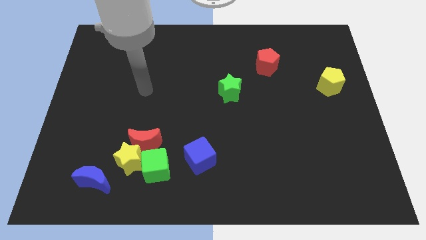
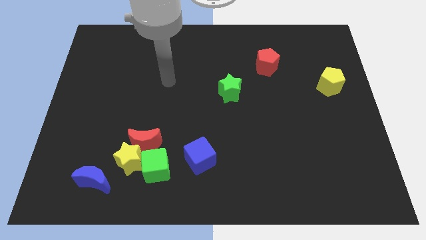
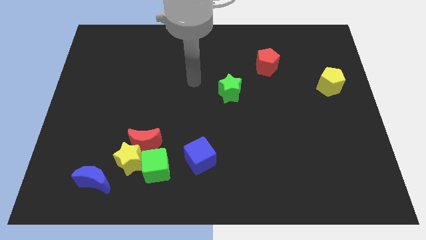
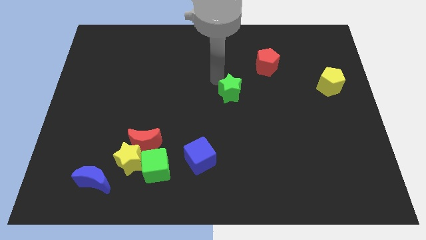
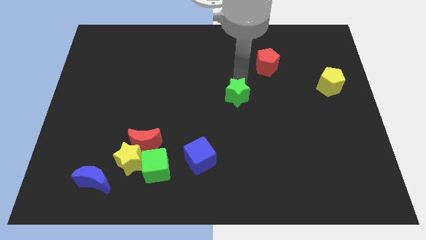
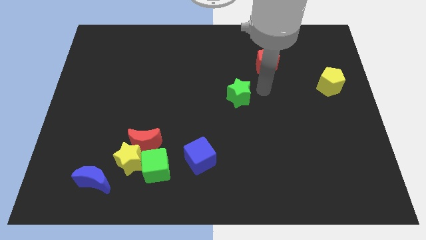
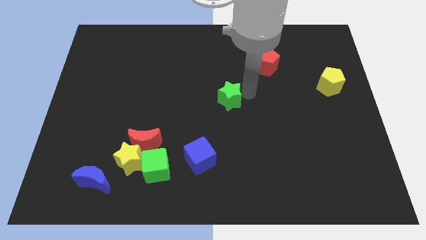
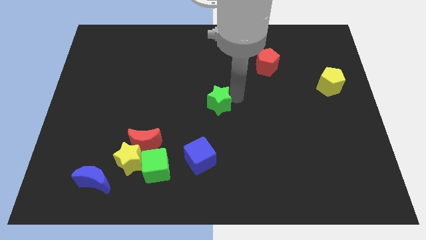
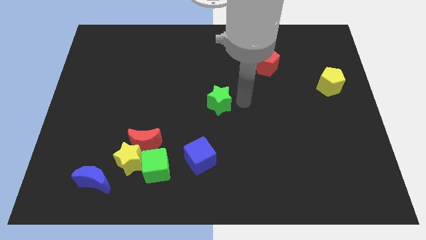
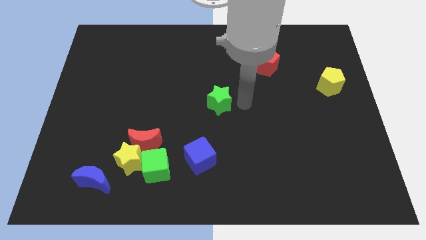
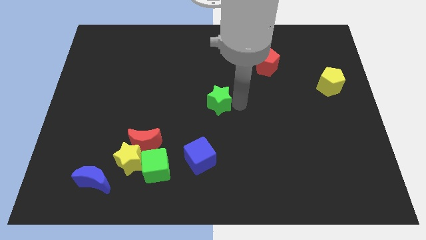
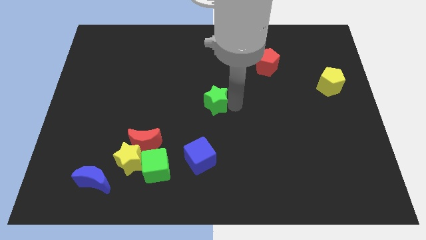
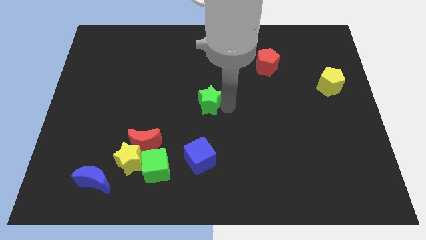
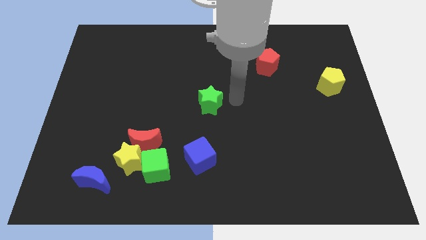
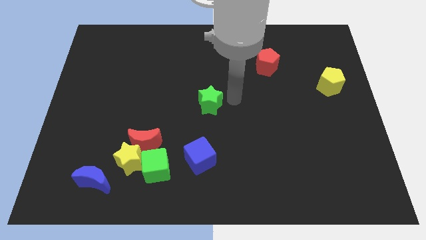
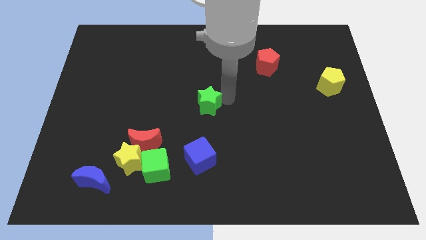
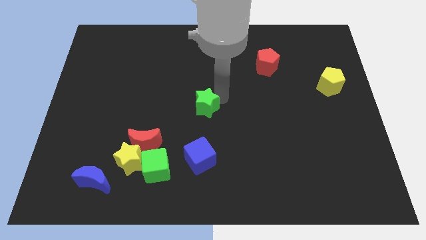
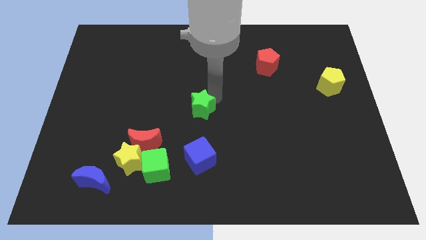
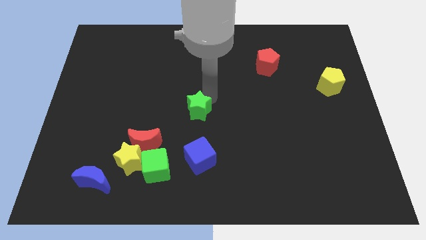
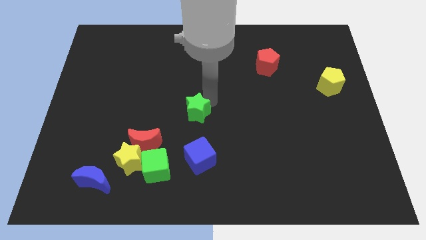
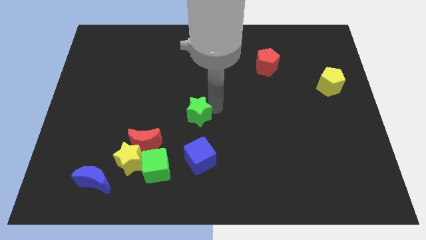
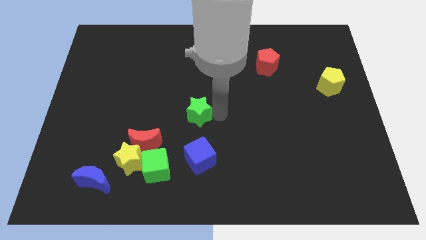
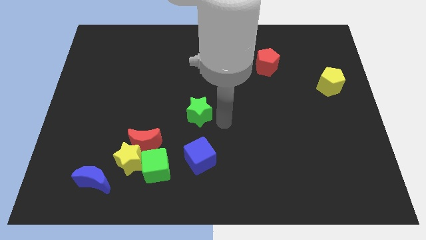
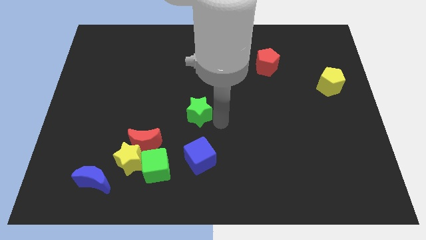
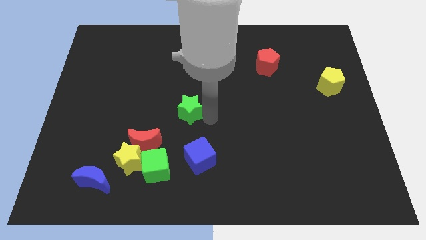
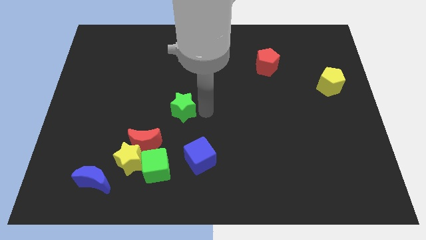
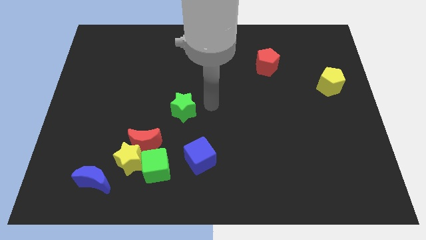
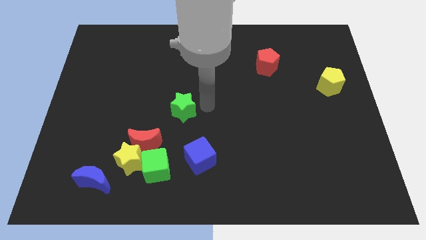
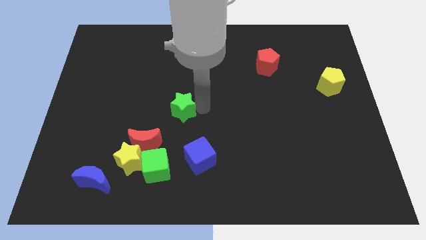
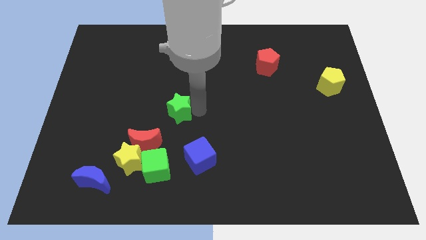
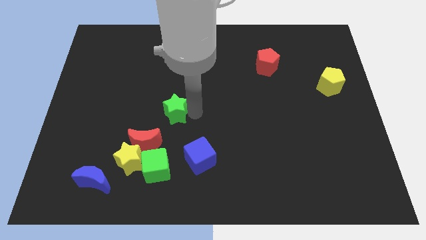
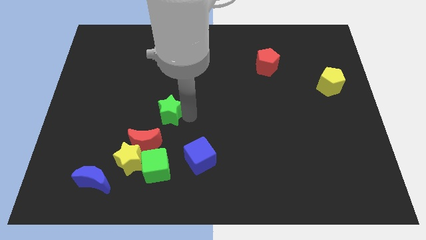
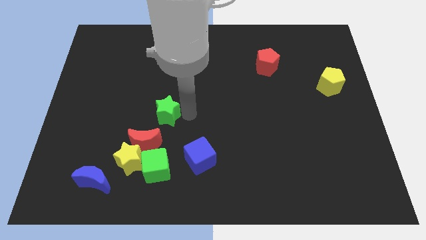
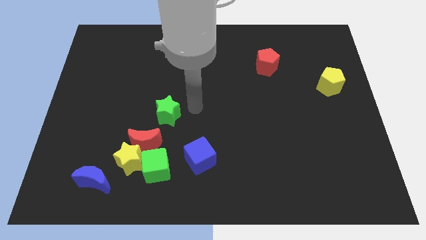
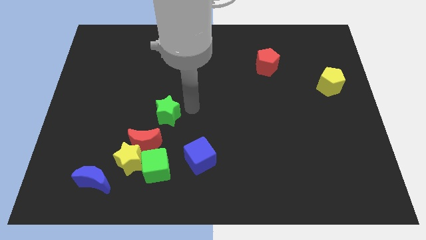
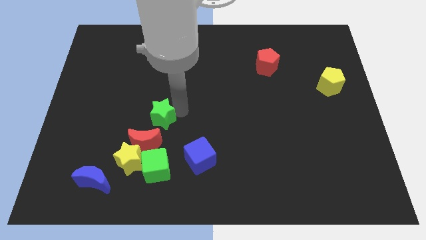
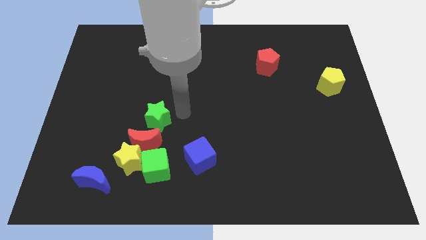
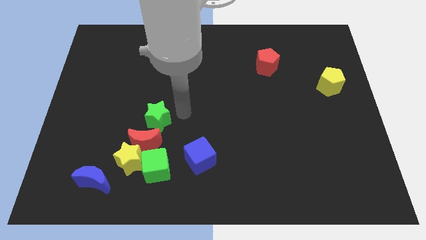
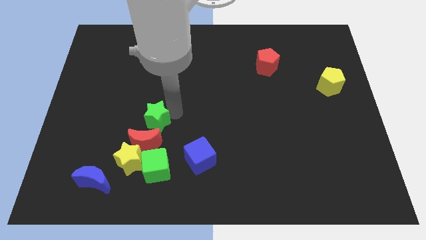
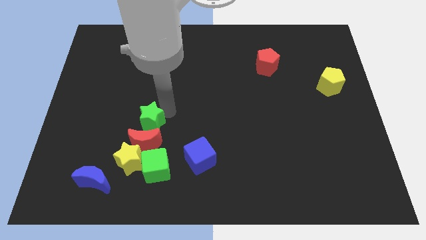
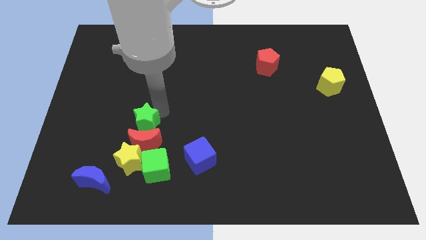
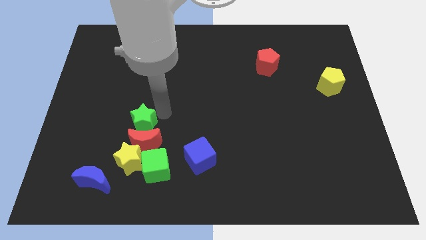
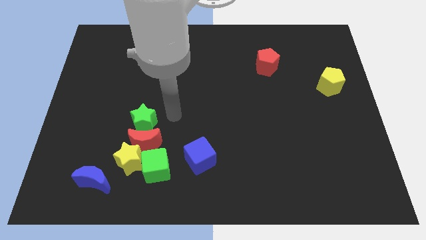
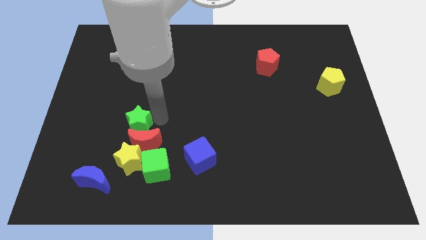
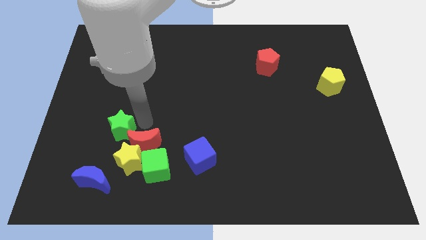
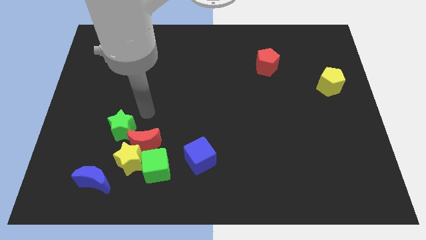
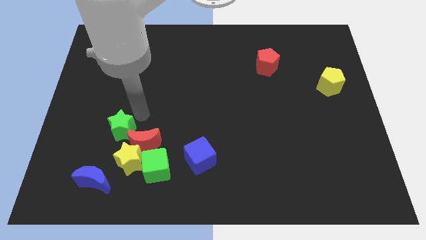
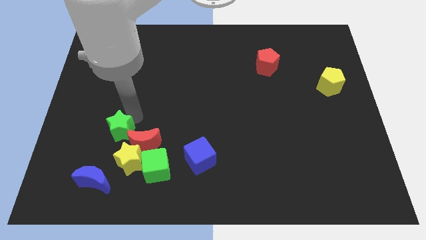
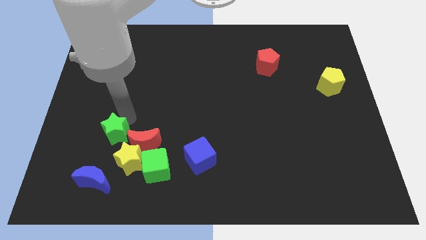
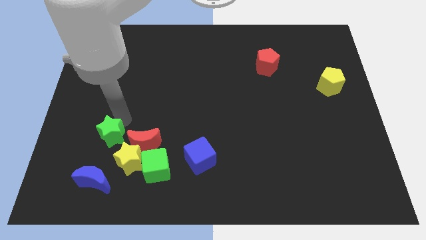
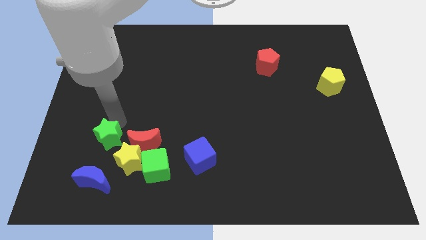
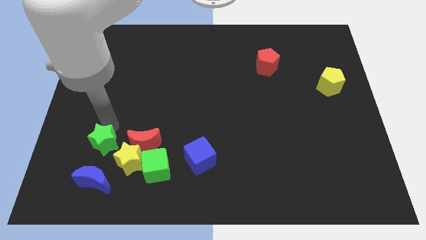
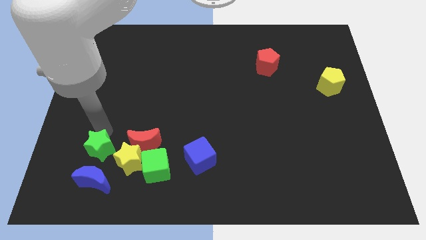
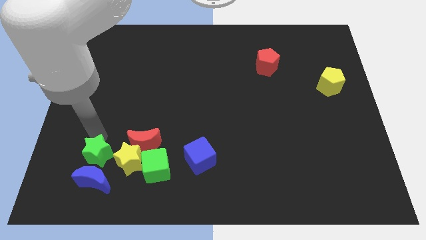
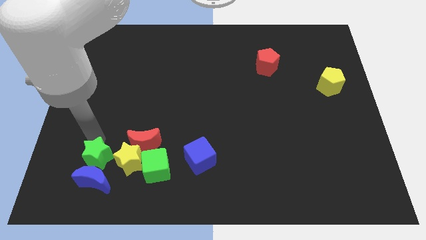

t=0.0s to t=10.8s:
push the green star towards the blue moon

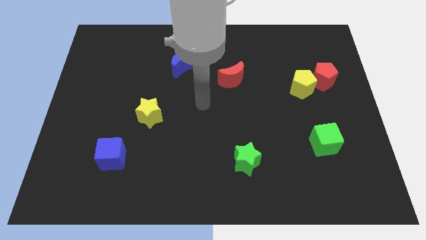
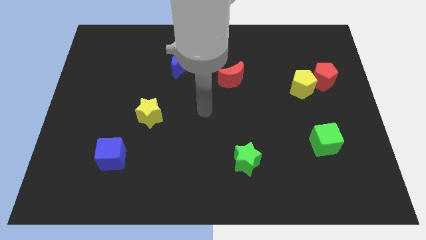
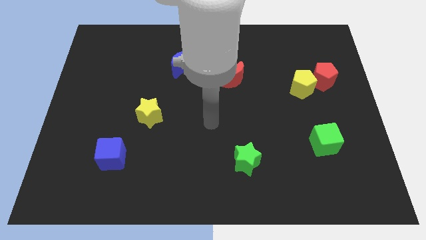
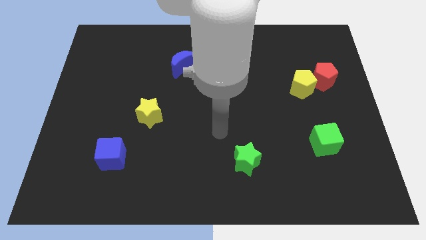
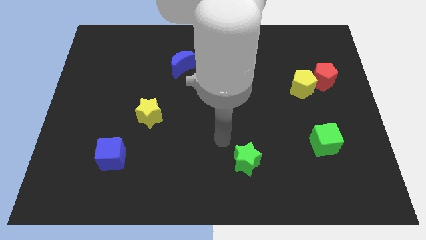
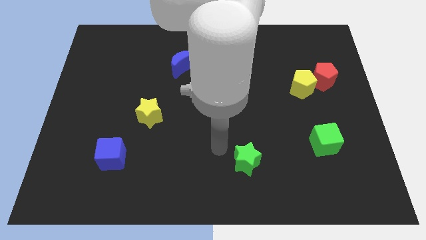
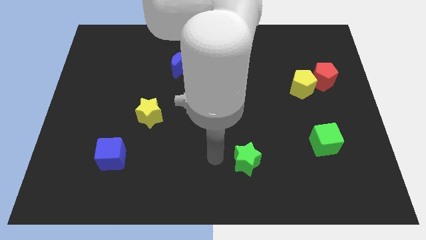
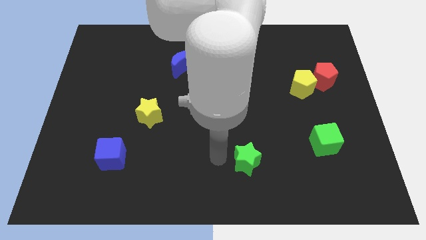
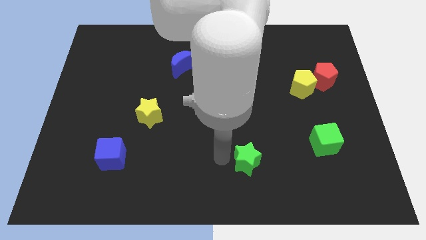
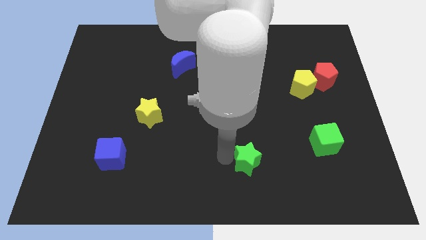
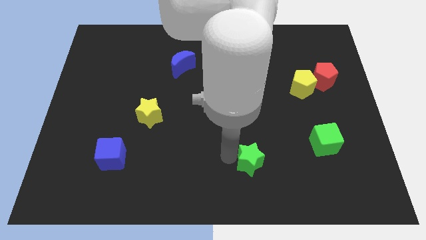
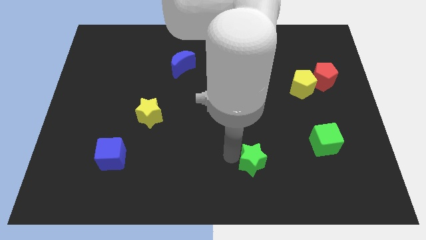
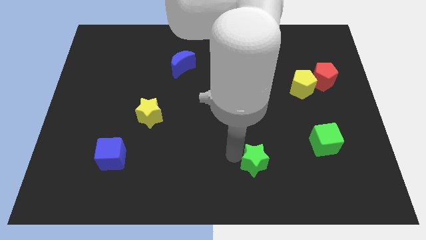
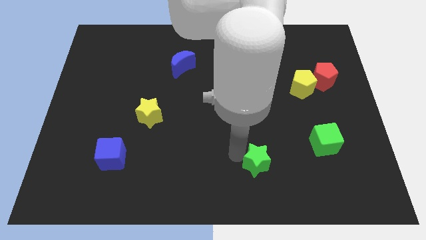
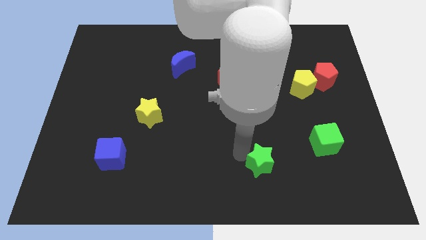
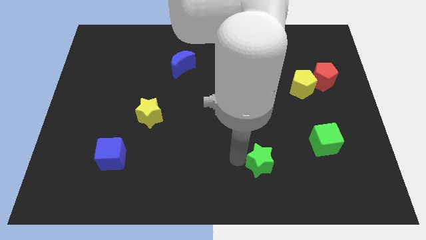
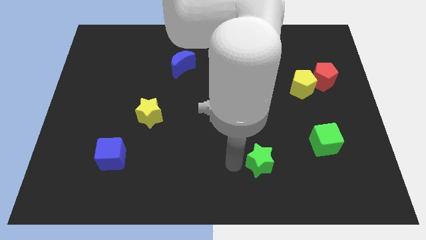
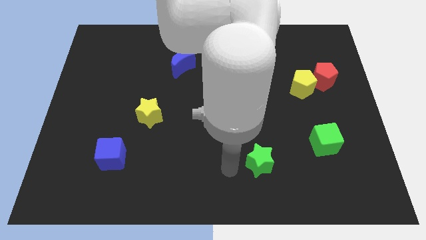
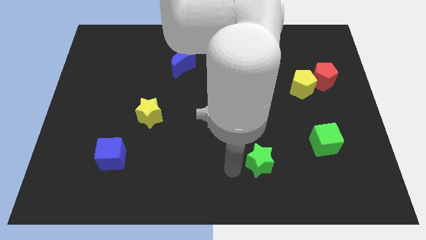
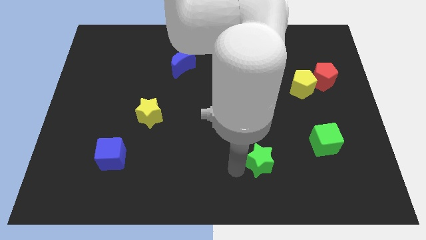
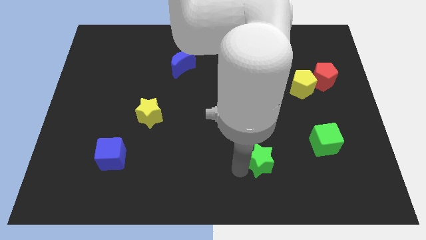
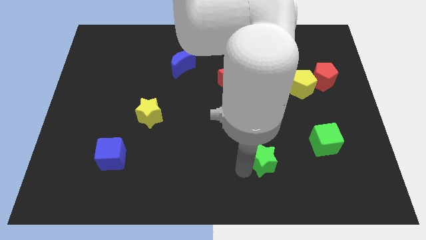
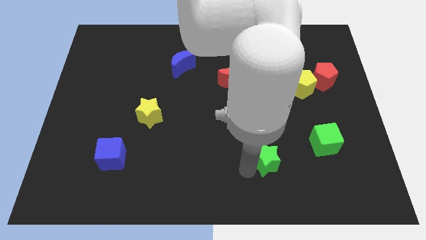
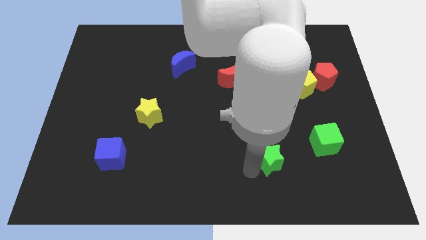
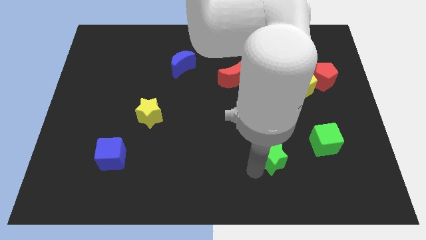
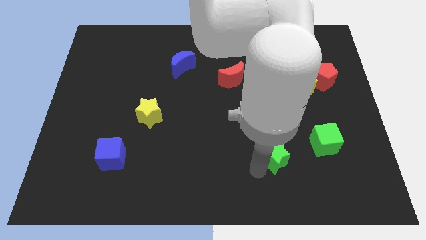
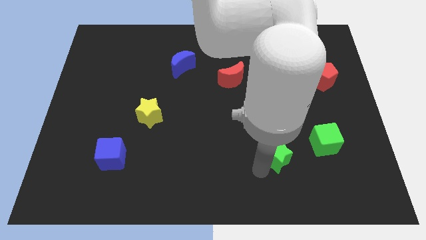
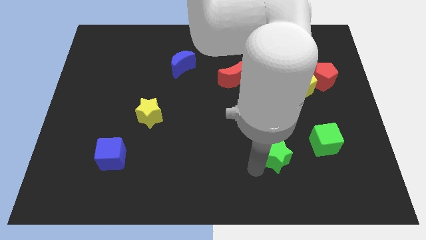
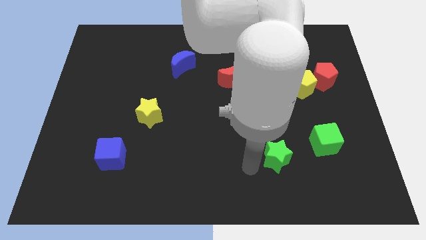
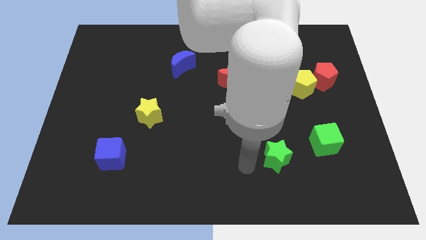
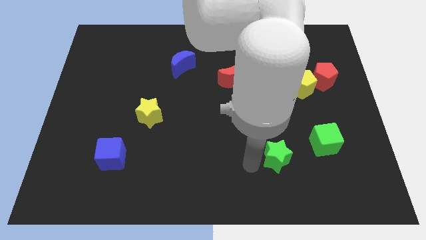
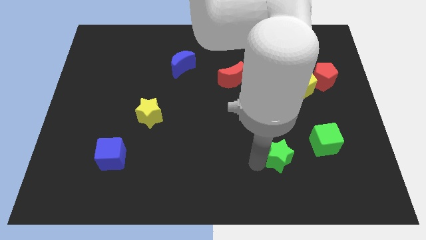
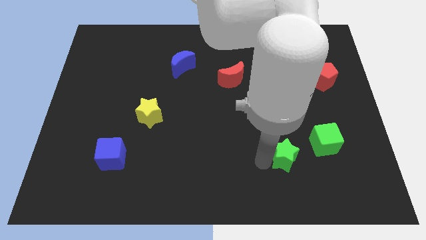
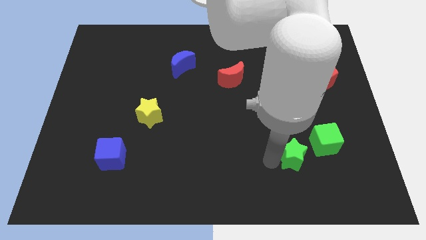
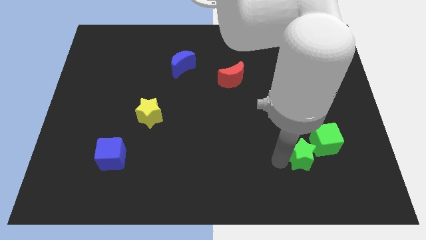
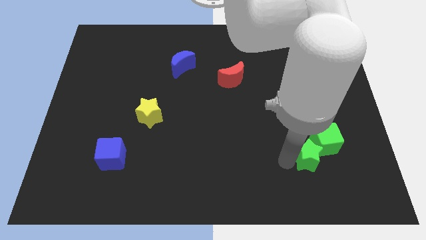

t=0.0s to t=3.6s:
push the green star to the green cube
